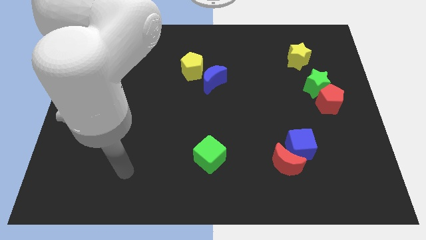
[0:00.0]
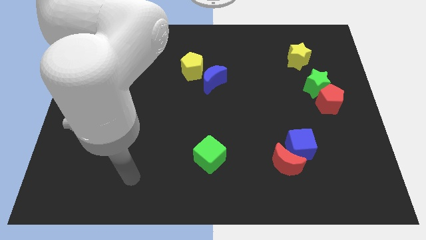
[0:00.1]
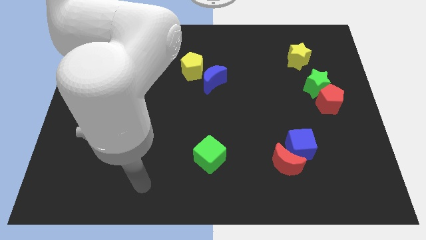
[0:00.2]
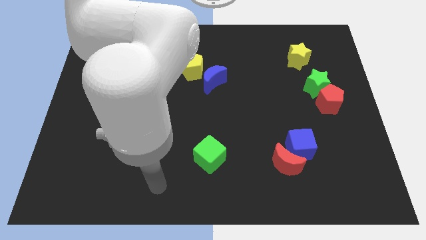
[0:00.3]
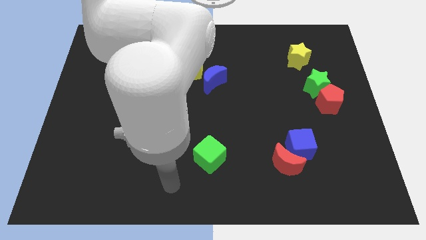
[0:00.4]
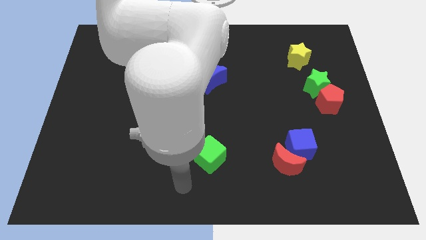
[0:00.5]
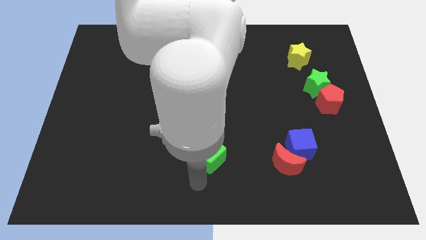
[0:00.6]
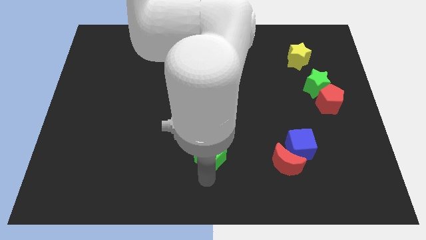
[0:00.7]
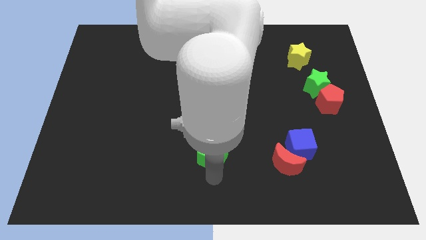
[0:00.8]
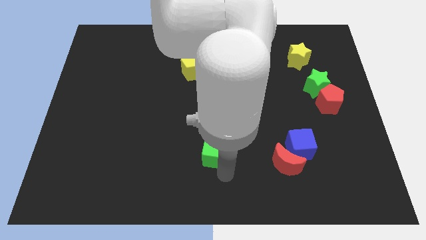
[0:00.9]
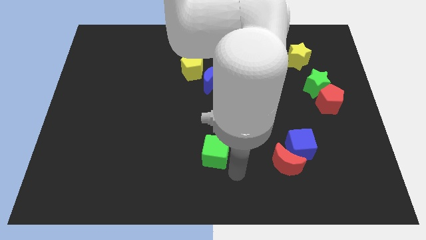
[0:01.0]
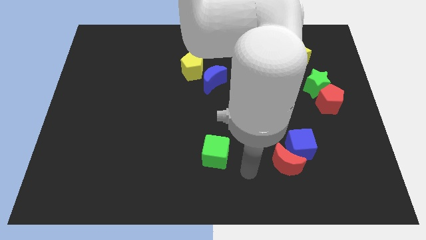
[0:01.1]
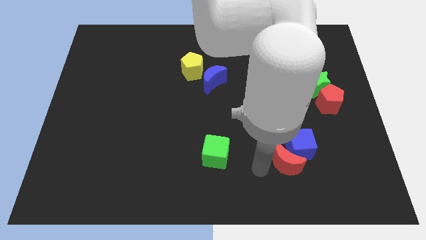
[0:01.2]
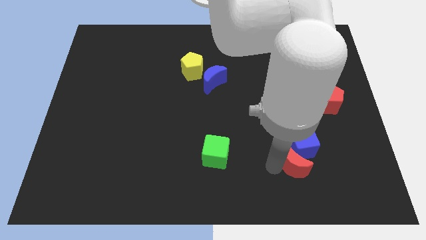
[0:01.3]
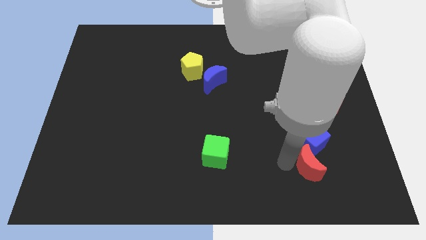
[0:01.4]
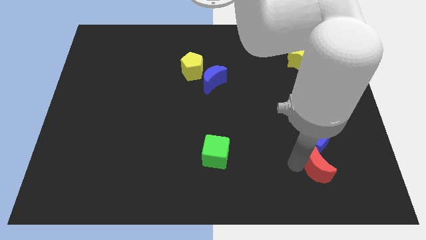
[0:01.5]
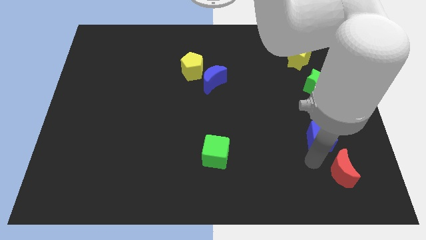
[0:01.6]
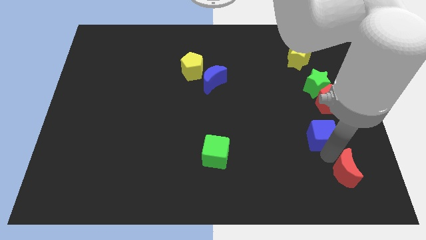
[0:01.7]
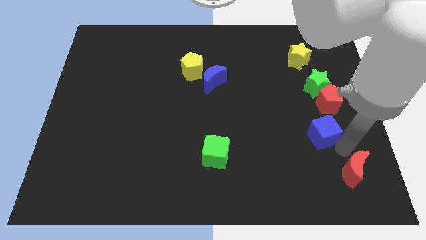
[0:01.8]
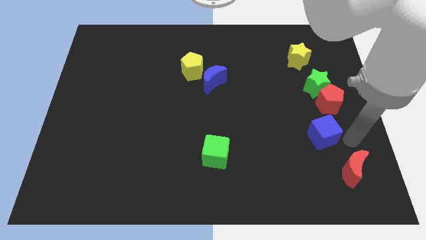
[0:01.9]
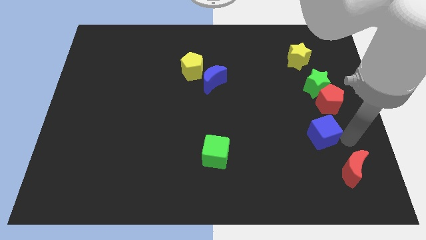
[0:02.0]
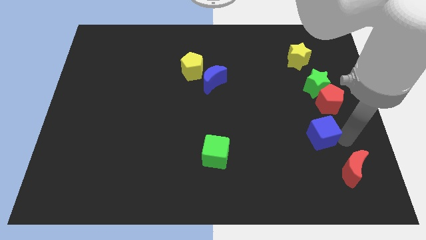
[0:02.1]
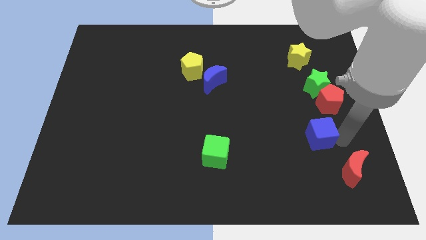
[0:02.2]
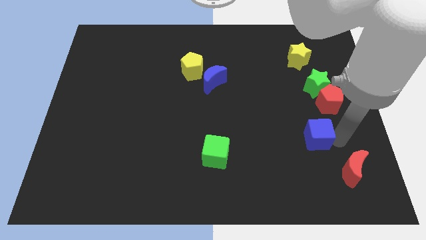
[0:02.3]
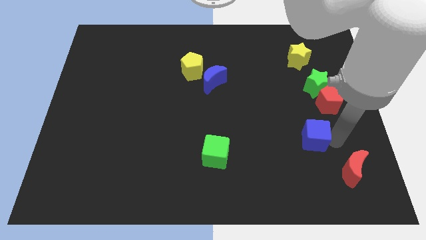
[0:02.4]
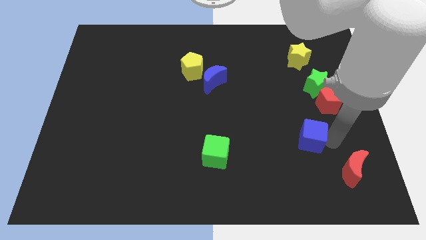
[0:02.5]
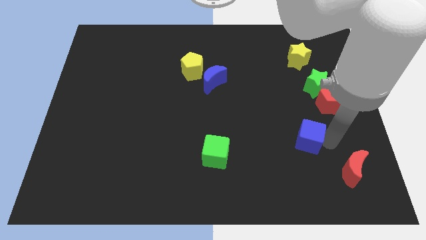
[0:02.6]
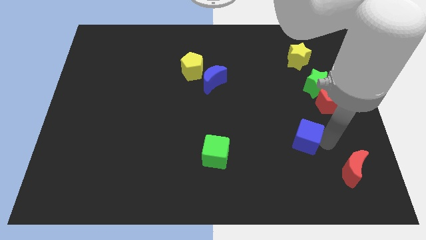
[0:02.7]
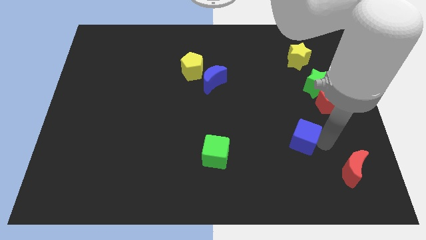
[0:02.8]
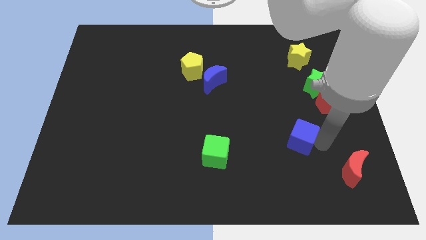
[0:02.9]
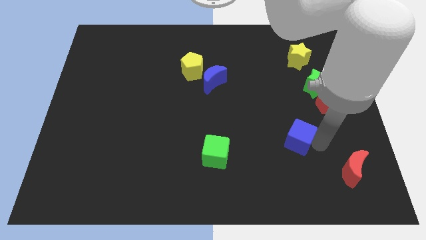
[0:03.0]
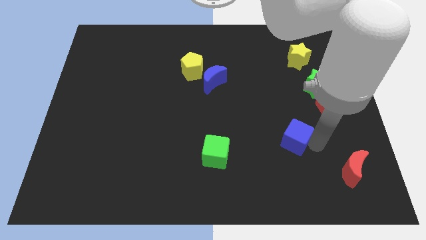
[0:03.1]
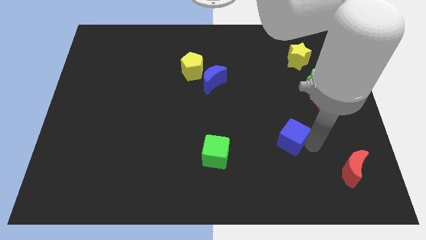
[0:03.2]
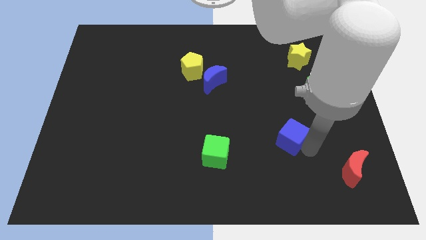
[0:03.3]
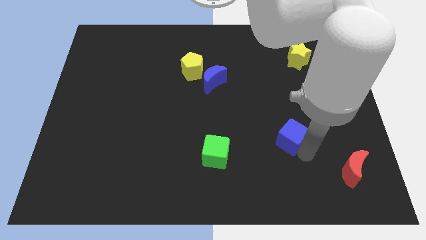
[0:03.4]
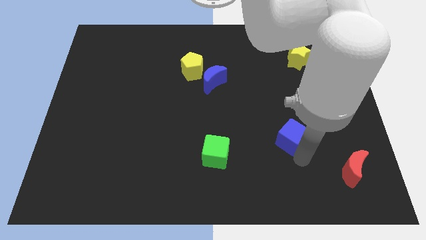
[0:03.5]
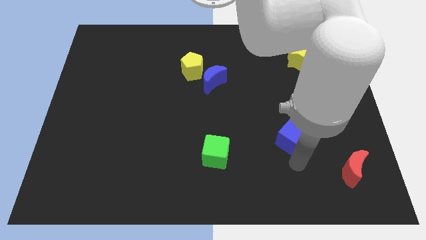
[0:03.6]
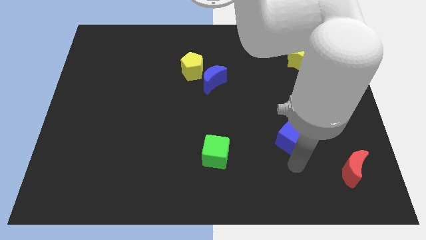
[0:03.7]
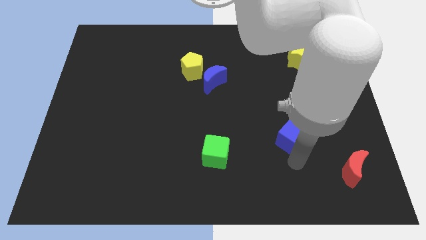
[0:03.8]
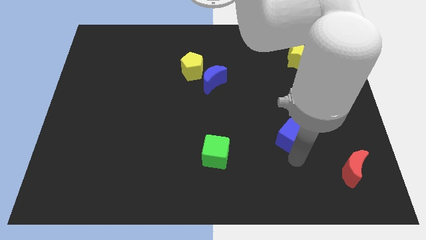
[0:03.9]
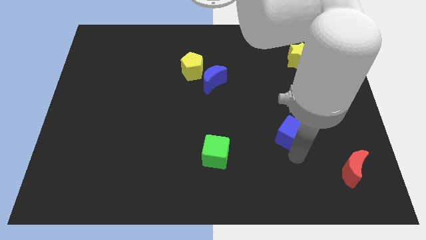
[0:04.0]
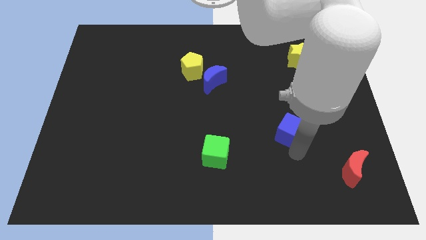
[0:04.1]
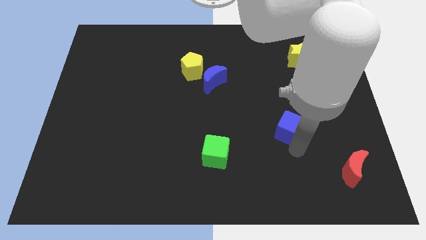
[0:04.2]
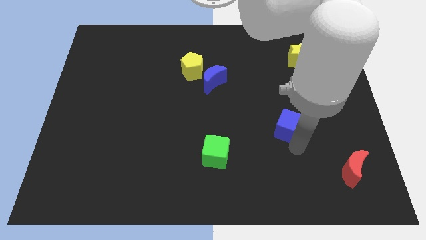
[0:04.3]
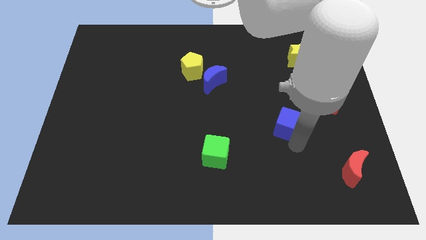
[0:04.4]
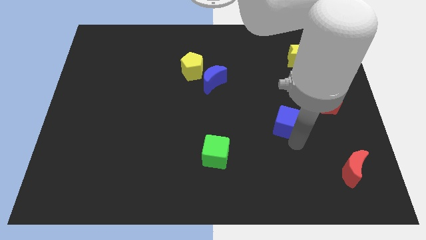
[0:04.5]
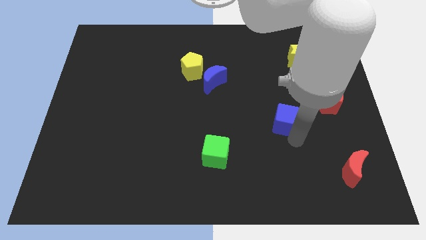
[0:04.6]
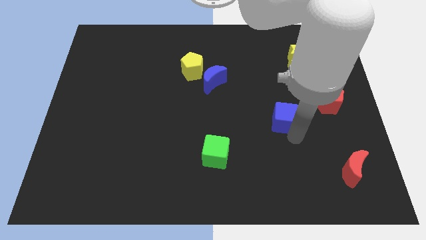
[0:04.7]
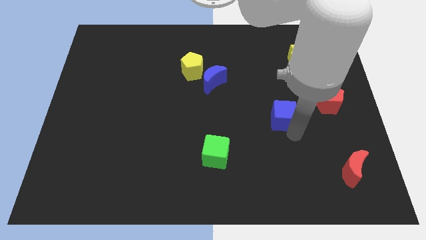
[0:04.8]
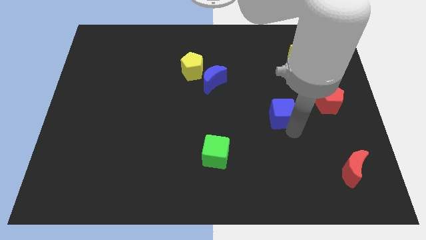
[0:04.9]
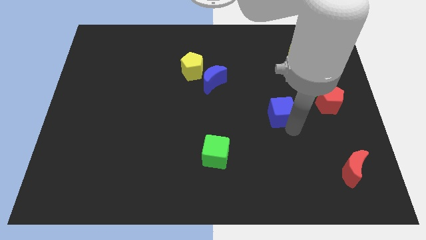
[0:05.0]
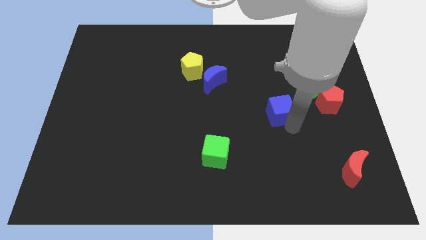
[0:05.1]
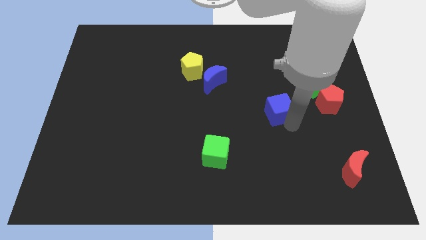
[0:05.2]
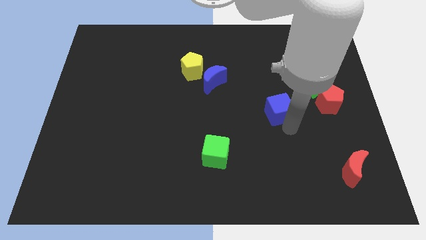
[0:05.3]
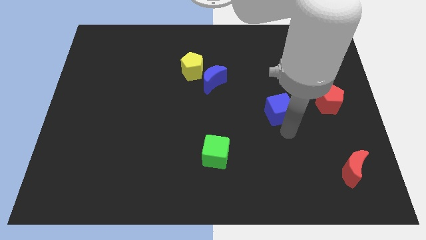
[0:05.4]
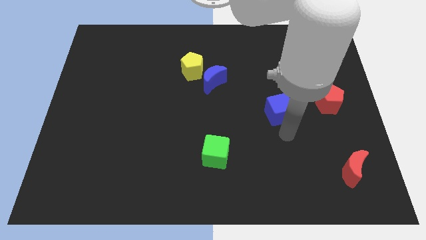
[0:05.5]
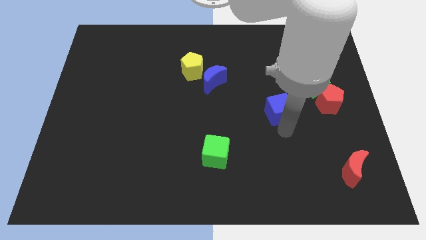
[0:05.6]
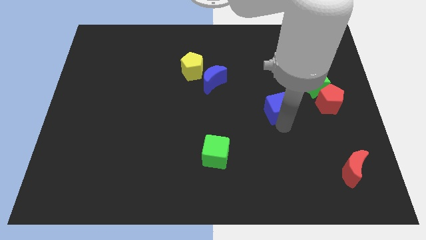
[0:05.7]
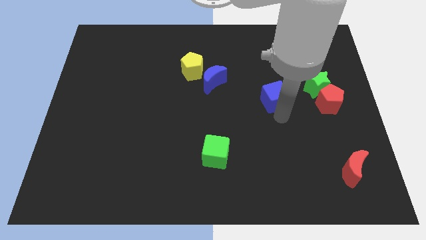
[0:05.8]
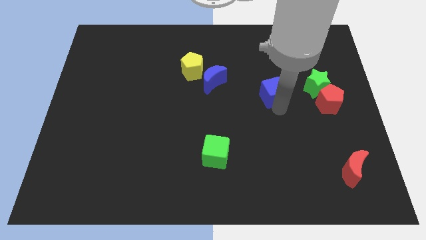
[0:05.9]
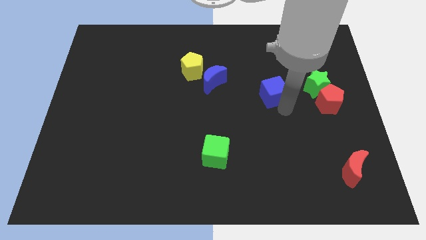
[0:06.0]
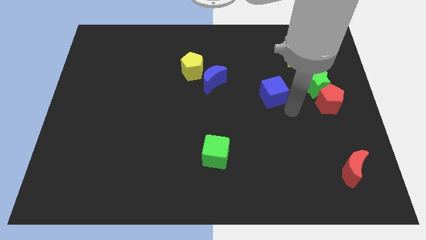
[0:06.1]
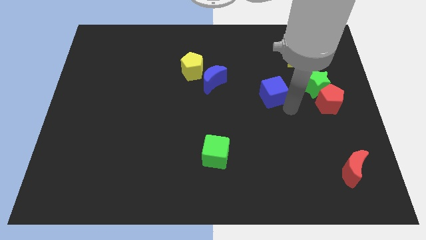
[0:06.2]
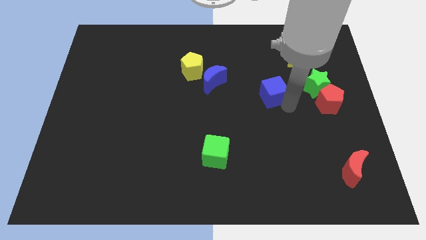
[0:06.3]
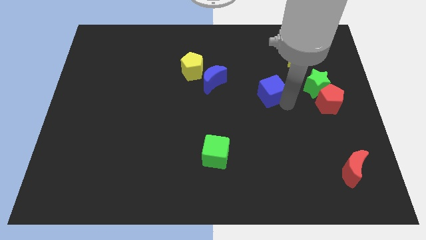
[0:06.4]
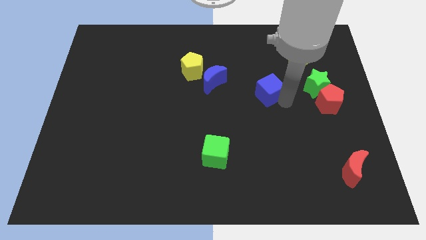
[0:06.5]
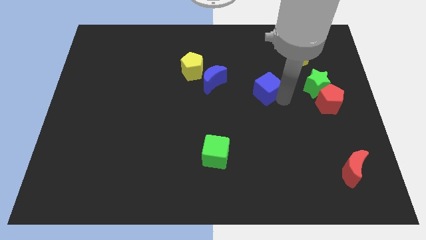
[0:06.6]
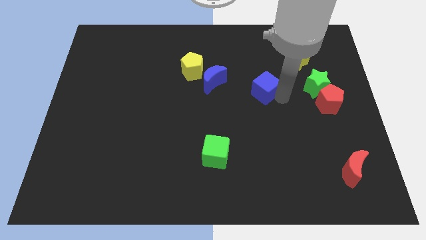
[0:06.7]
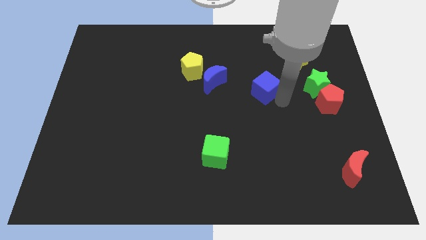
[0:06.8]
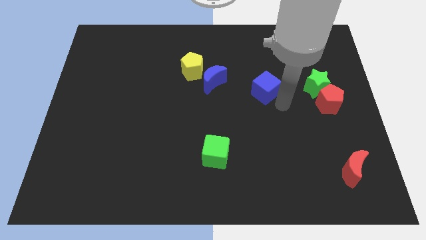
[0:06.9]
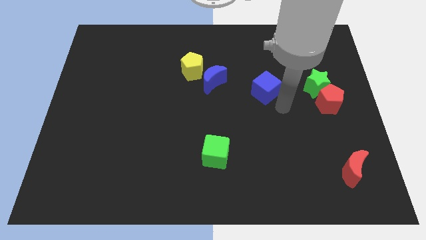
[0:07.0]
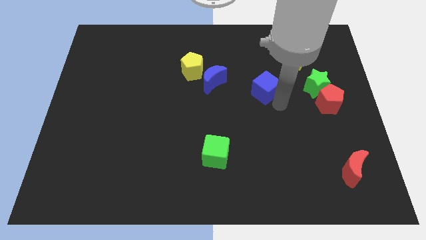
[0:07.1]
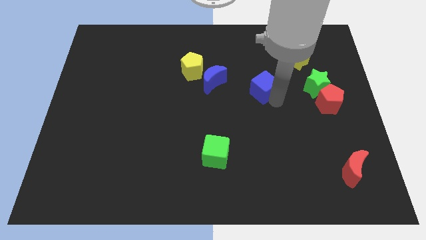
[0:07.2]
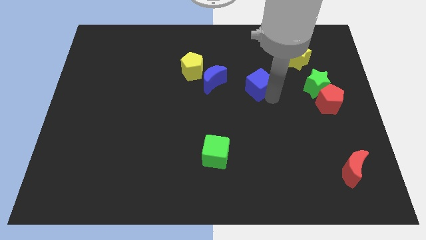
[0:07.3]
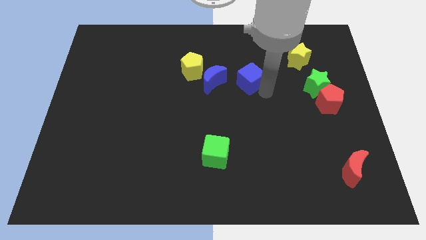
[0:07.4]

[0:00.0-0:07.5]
move the blue cube right of the yellow pentagon

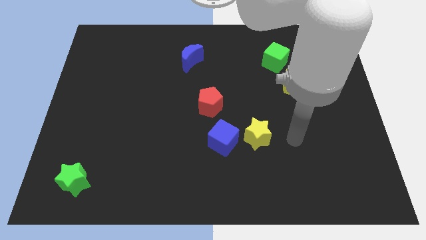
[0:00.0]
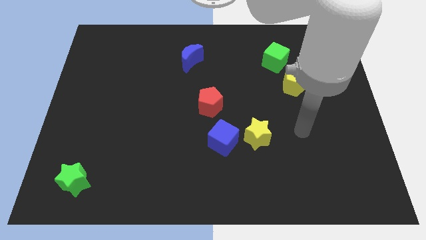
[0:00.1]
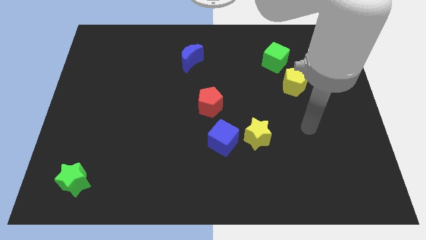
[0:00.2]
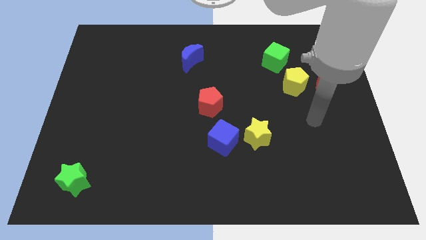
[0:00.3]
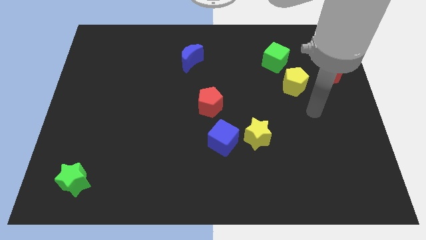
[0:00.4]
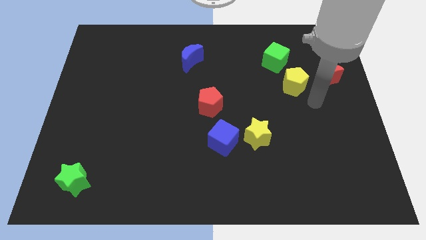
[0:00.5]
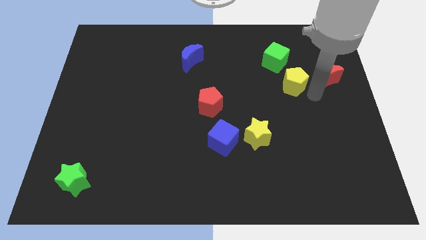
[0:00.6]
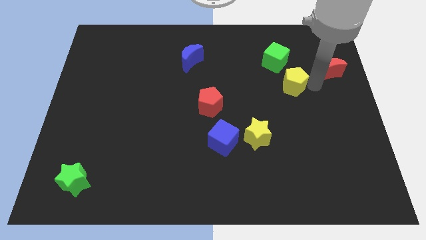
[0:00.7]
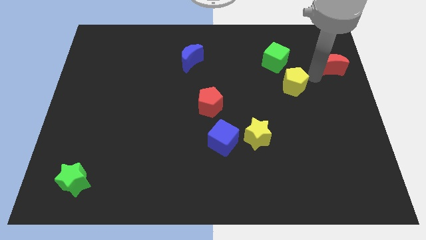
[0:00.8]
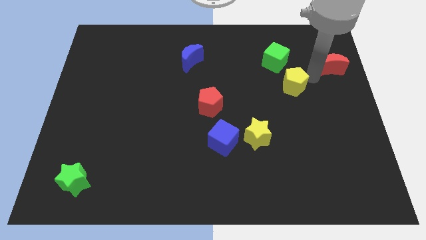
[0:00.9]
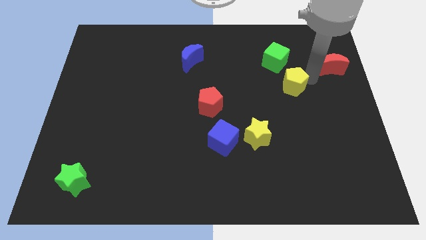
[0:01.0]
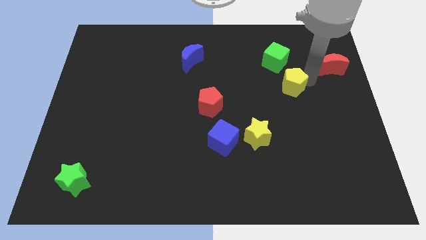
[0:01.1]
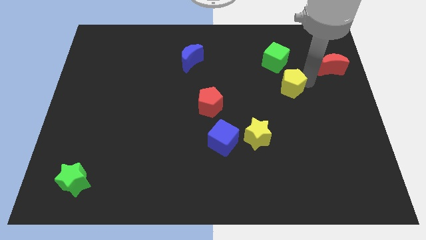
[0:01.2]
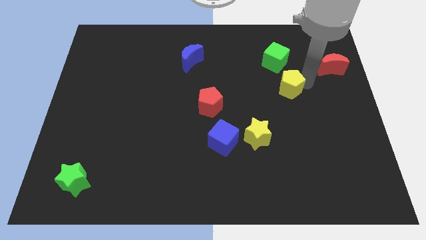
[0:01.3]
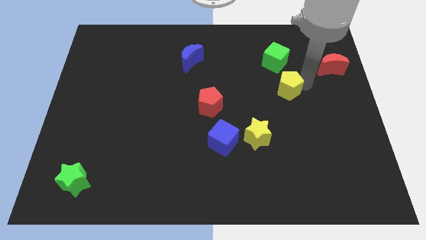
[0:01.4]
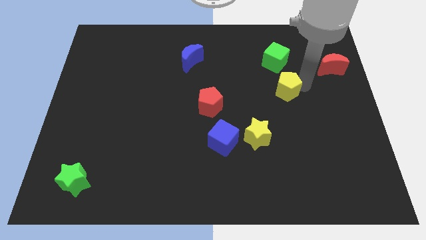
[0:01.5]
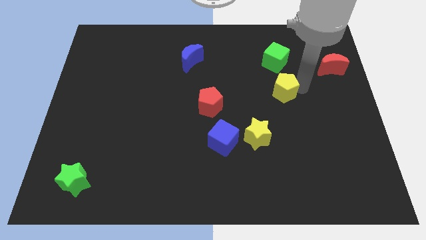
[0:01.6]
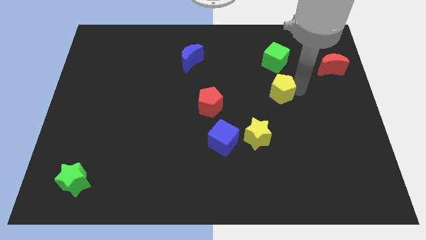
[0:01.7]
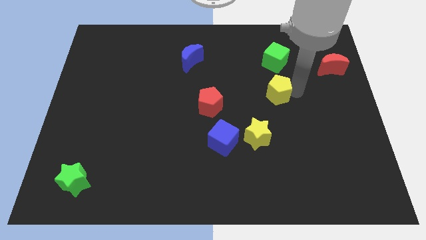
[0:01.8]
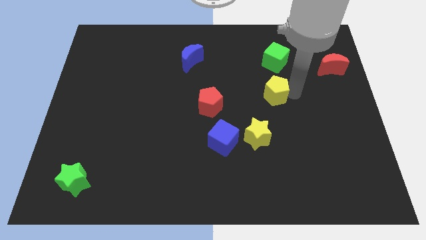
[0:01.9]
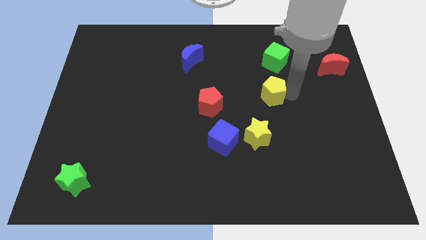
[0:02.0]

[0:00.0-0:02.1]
slide the yellow pentagon to the right of the red pentagon
